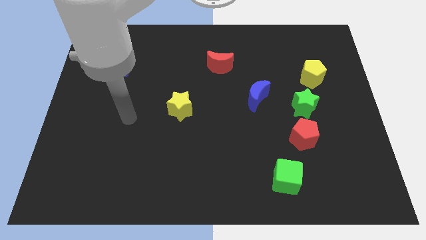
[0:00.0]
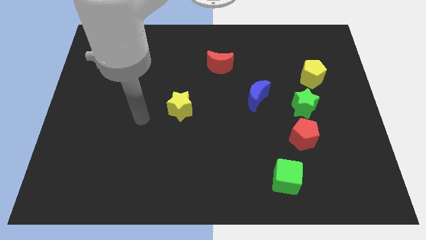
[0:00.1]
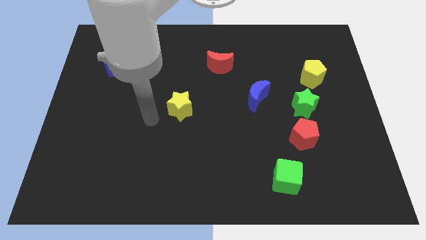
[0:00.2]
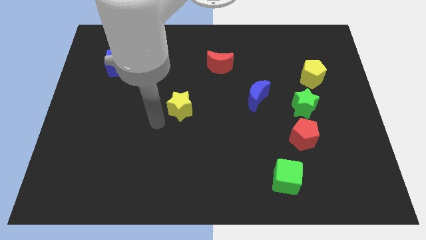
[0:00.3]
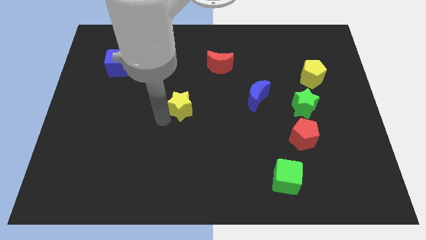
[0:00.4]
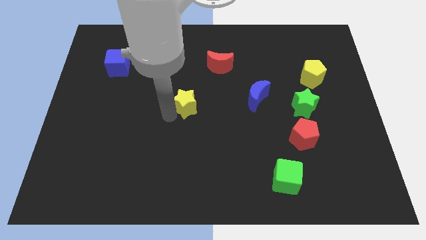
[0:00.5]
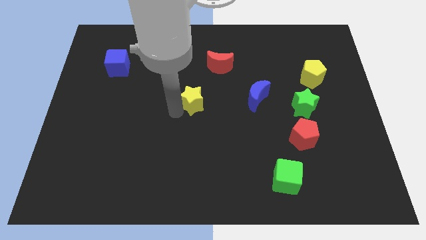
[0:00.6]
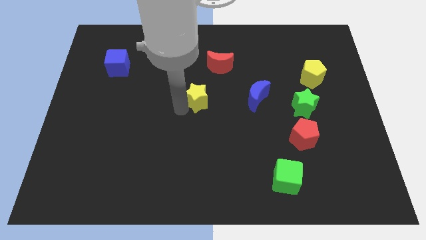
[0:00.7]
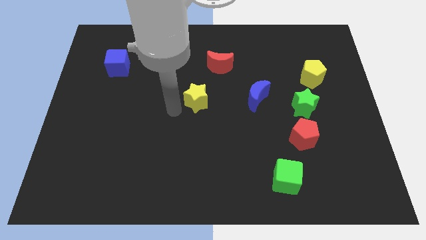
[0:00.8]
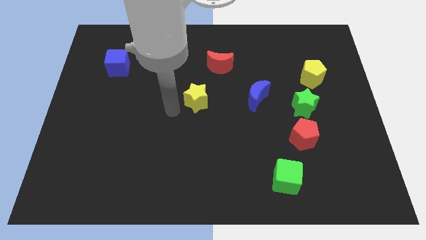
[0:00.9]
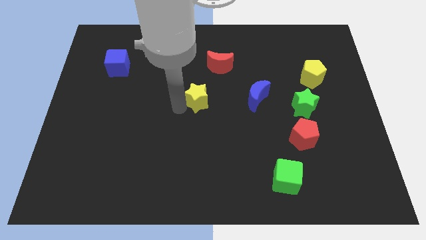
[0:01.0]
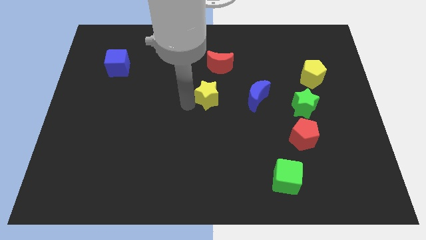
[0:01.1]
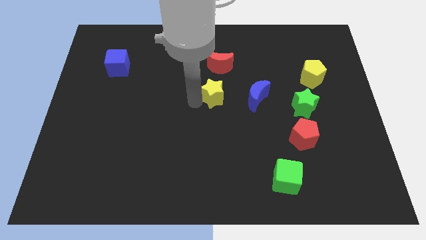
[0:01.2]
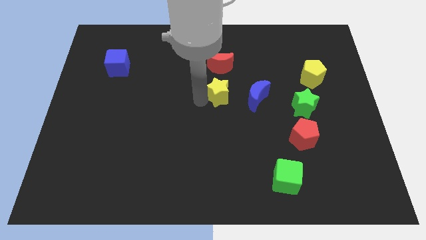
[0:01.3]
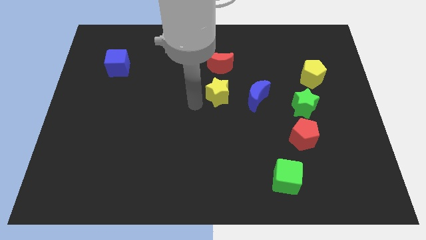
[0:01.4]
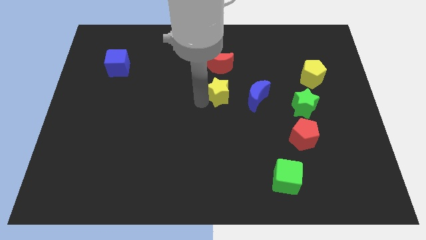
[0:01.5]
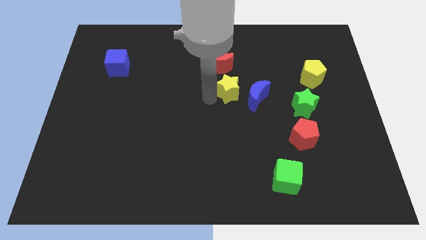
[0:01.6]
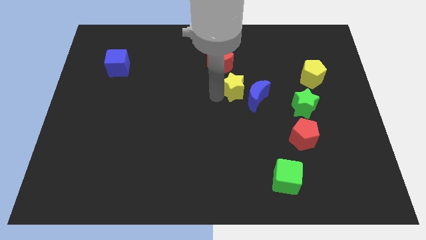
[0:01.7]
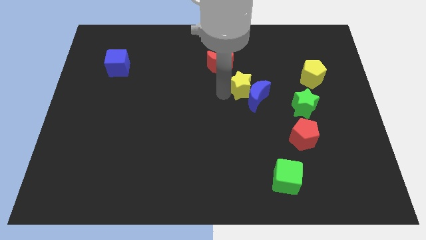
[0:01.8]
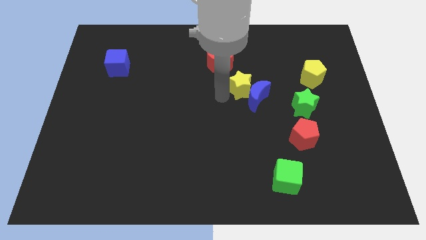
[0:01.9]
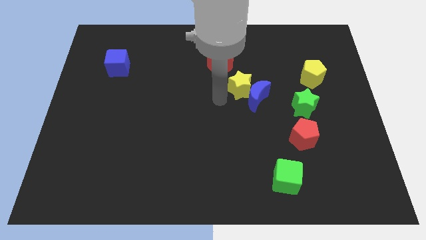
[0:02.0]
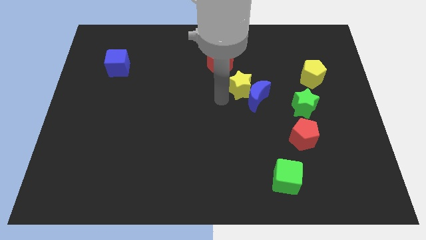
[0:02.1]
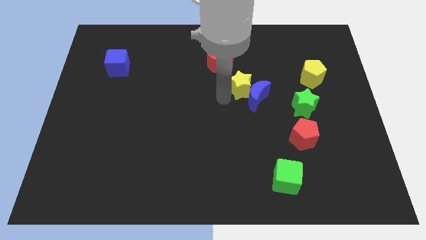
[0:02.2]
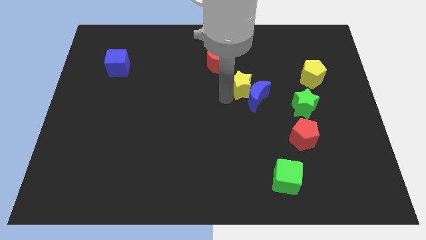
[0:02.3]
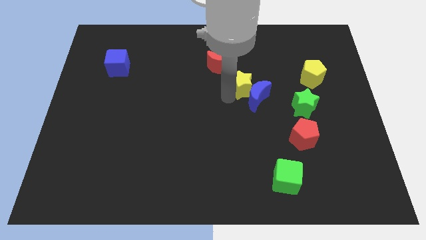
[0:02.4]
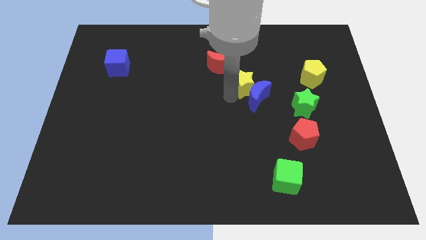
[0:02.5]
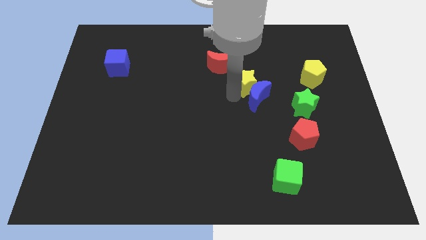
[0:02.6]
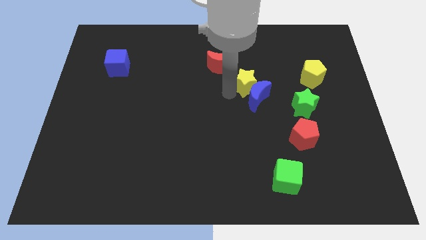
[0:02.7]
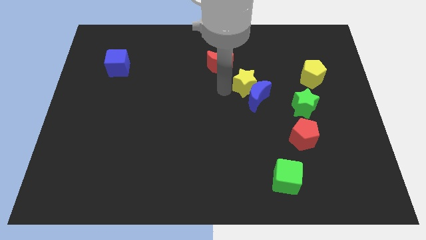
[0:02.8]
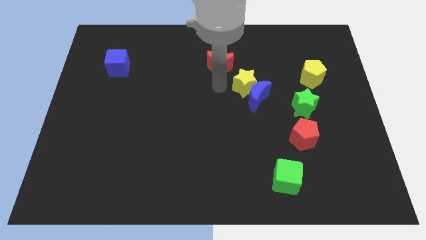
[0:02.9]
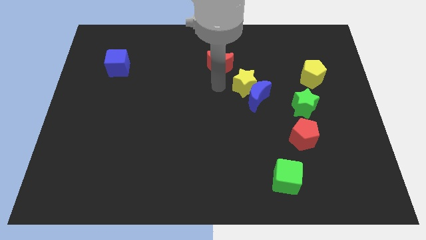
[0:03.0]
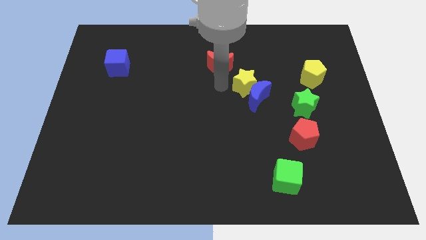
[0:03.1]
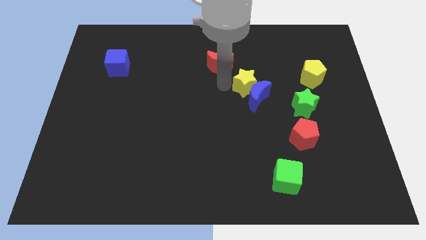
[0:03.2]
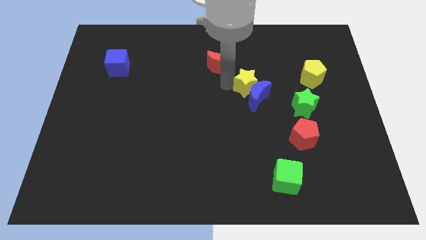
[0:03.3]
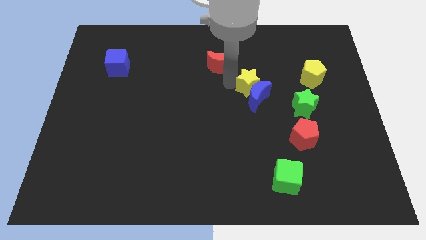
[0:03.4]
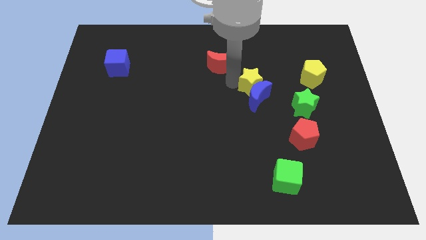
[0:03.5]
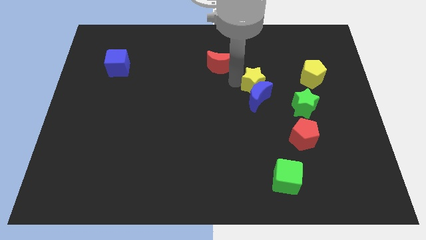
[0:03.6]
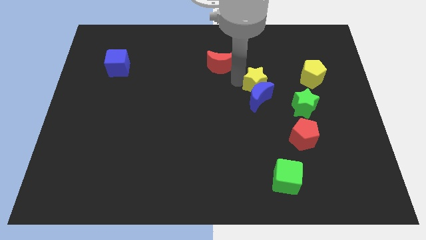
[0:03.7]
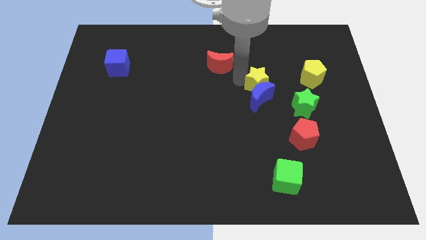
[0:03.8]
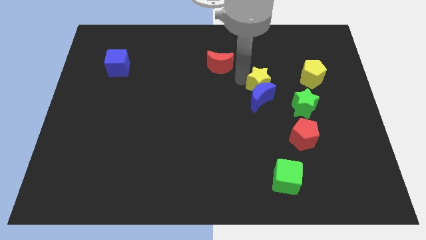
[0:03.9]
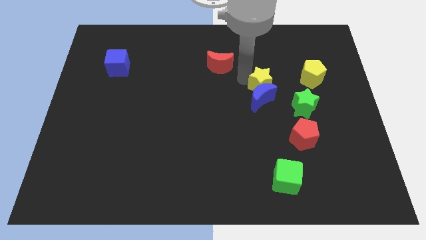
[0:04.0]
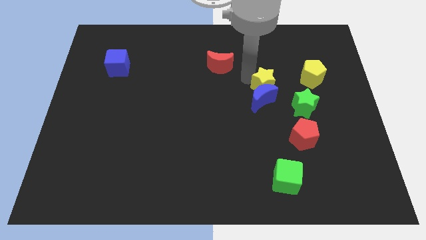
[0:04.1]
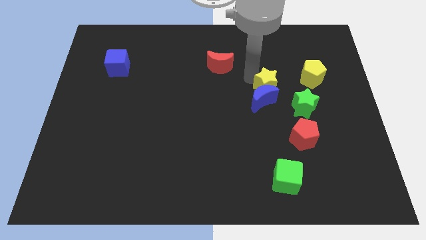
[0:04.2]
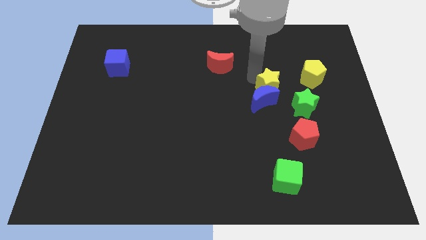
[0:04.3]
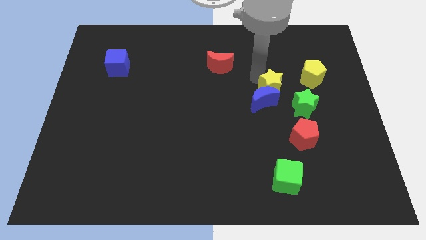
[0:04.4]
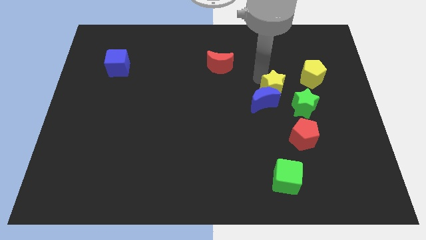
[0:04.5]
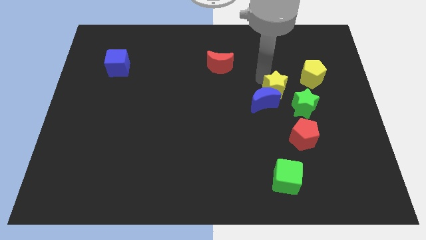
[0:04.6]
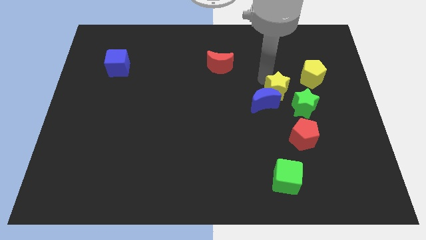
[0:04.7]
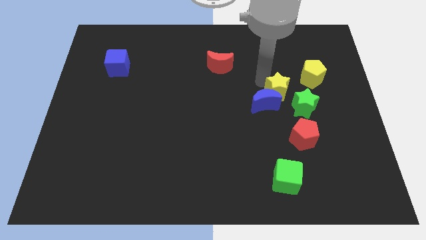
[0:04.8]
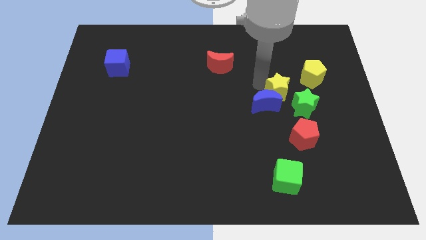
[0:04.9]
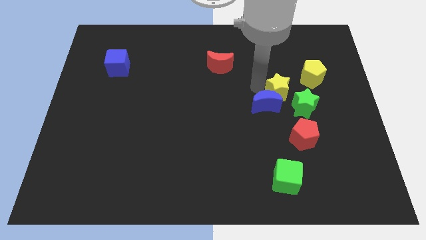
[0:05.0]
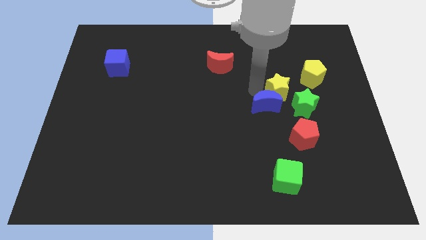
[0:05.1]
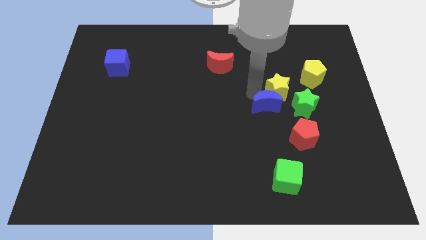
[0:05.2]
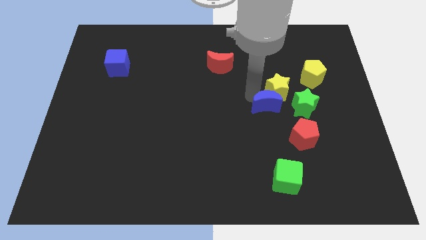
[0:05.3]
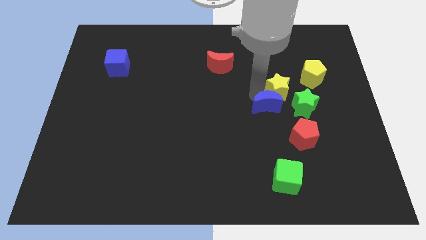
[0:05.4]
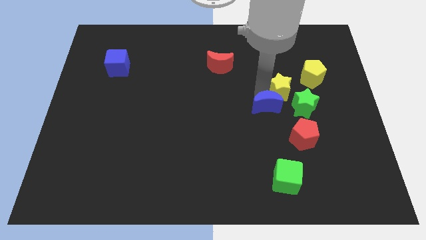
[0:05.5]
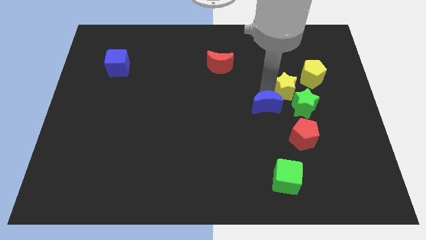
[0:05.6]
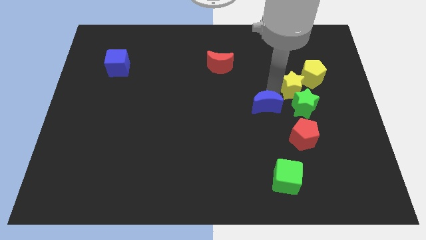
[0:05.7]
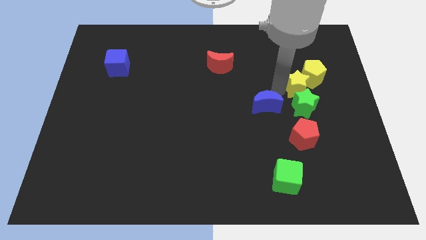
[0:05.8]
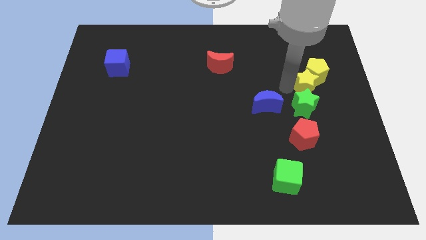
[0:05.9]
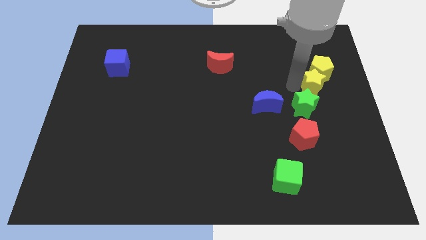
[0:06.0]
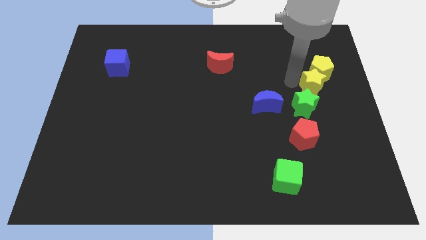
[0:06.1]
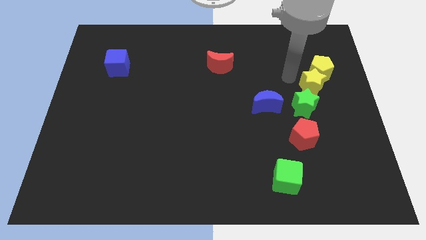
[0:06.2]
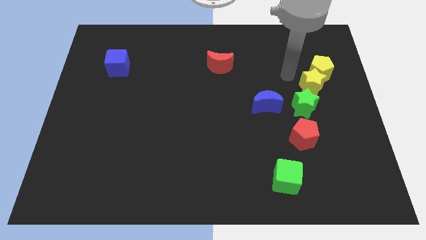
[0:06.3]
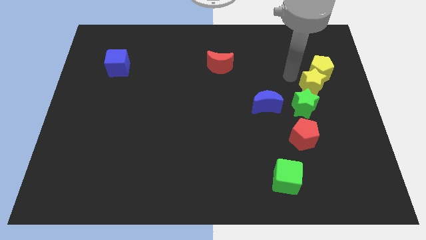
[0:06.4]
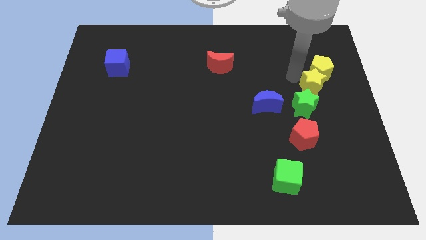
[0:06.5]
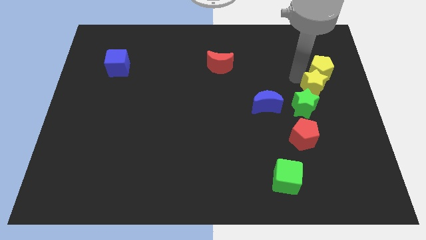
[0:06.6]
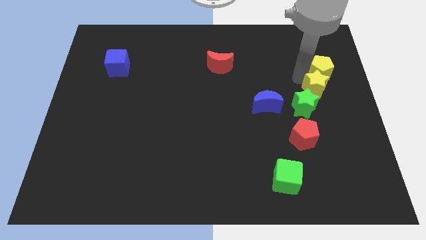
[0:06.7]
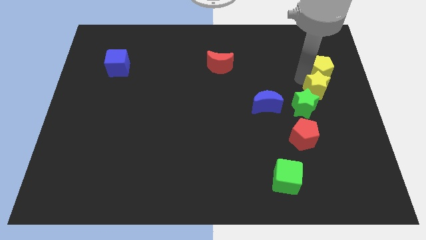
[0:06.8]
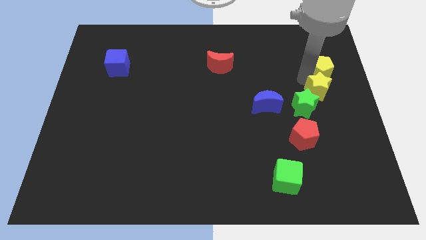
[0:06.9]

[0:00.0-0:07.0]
push the yellow star to the right side of the board
